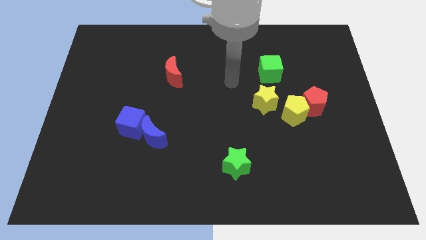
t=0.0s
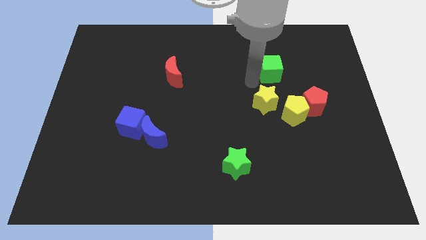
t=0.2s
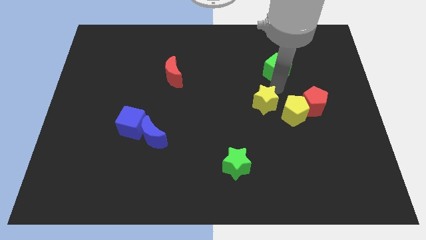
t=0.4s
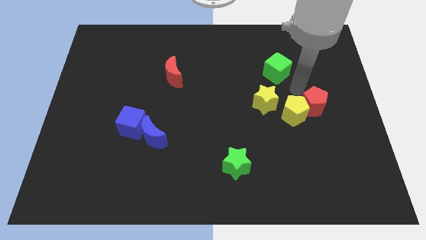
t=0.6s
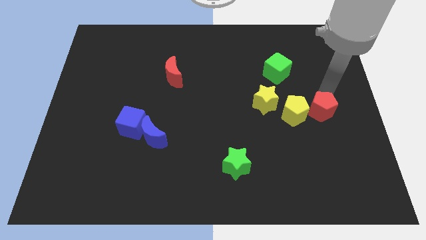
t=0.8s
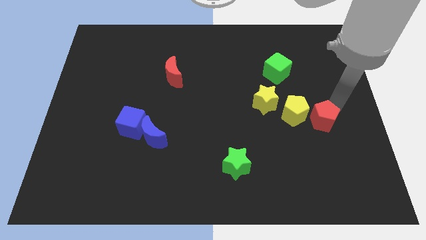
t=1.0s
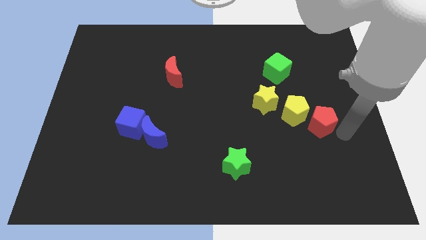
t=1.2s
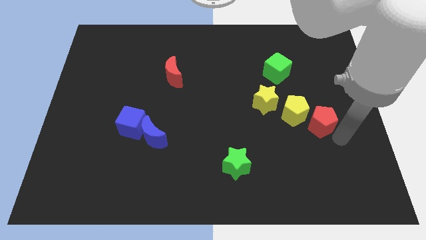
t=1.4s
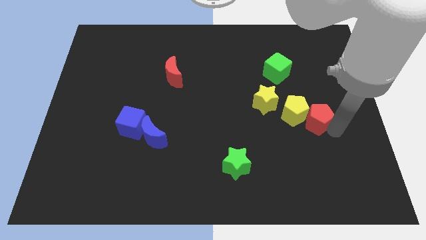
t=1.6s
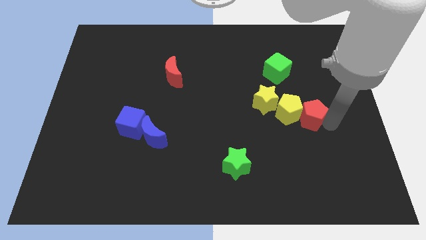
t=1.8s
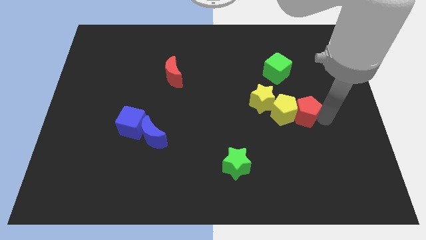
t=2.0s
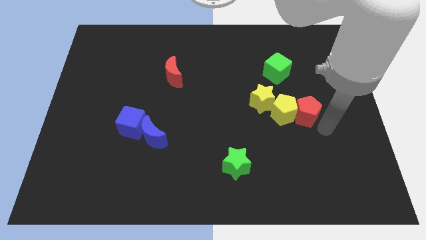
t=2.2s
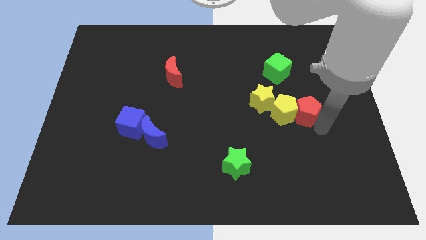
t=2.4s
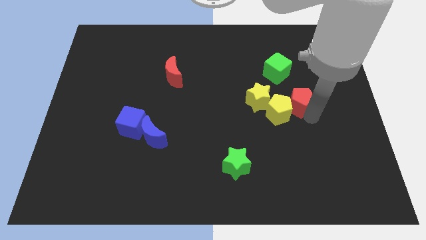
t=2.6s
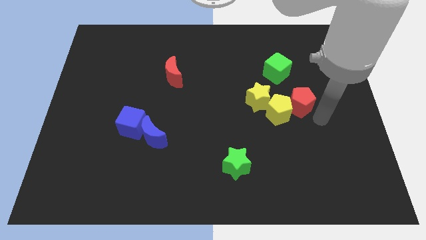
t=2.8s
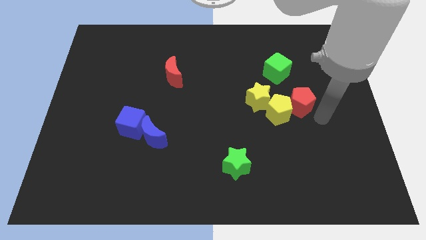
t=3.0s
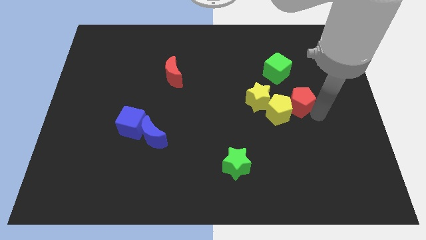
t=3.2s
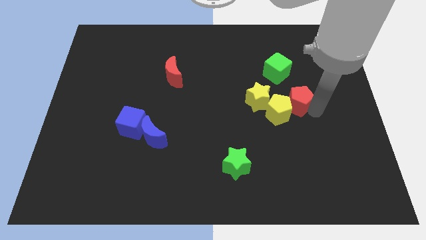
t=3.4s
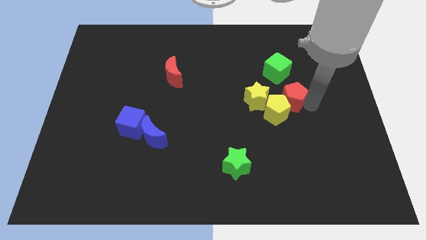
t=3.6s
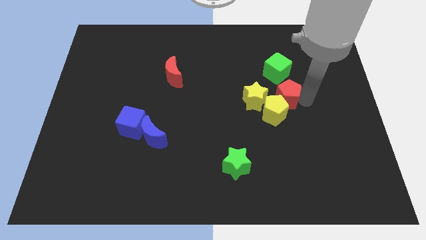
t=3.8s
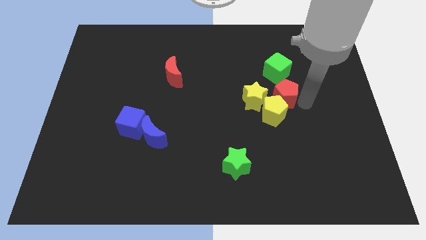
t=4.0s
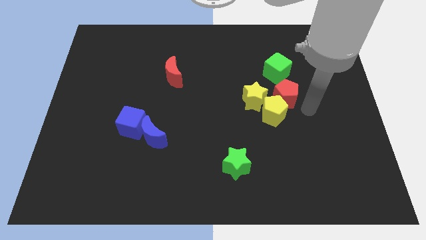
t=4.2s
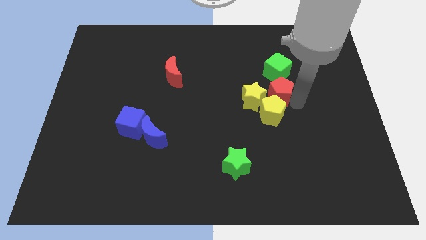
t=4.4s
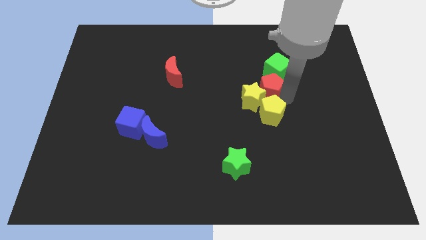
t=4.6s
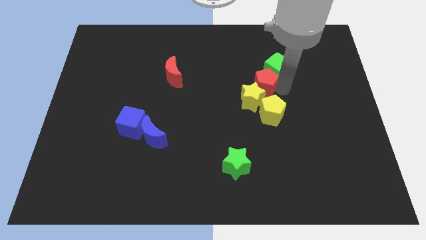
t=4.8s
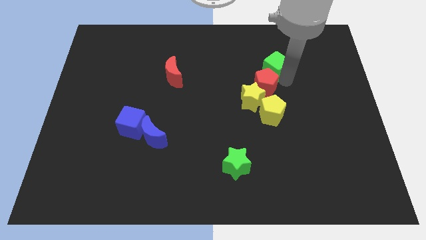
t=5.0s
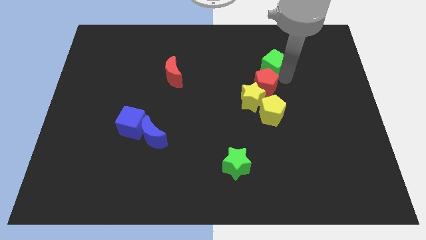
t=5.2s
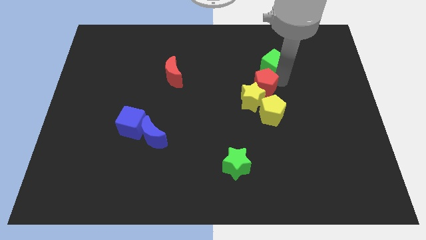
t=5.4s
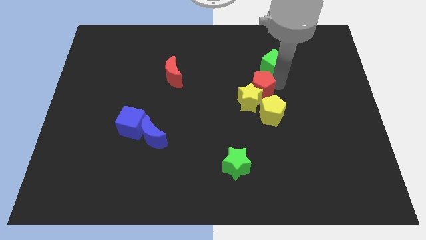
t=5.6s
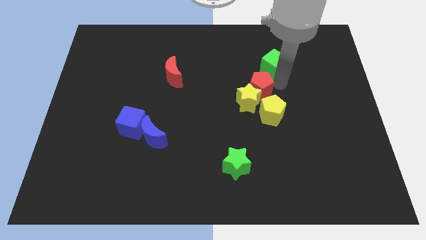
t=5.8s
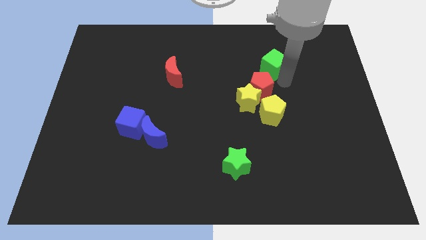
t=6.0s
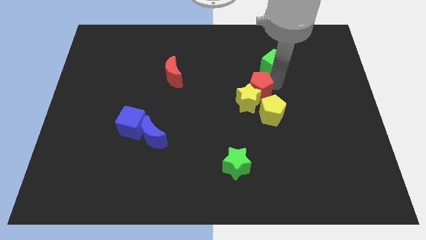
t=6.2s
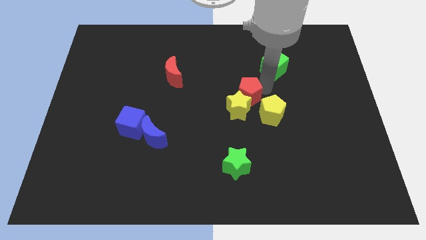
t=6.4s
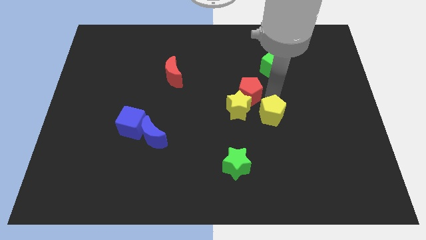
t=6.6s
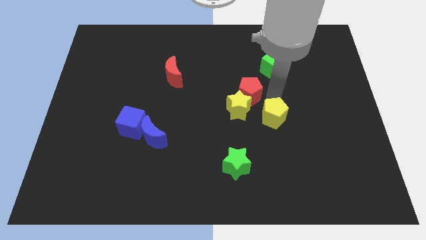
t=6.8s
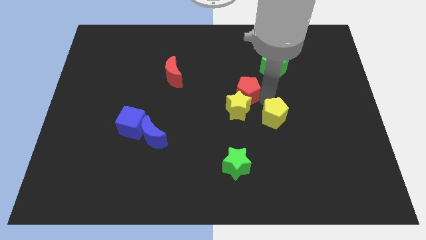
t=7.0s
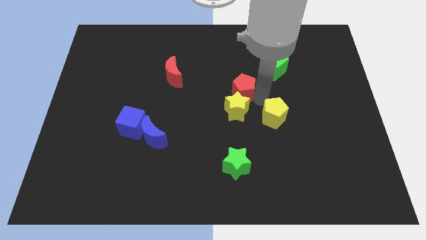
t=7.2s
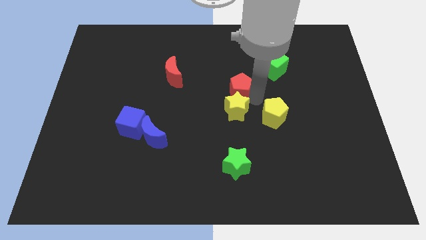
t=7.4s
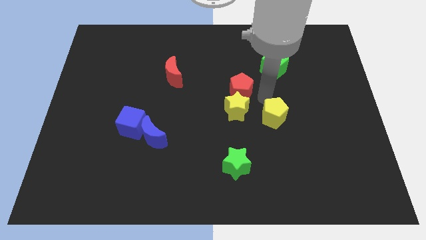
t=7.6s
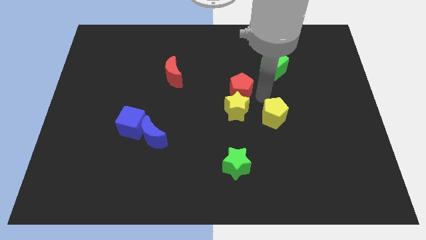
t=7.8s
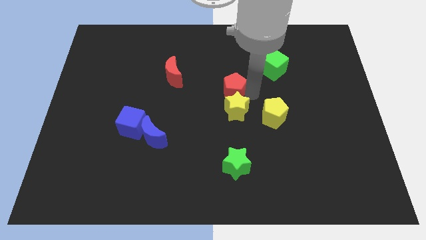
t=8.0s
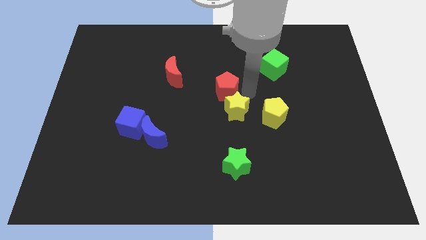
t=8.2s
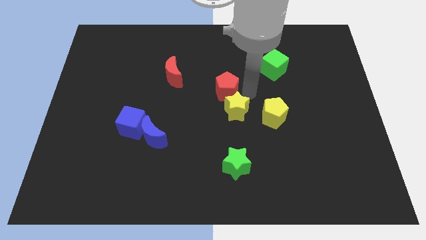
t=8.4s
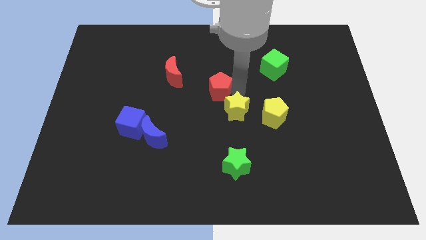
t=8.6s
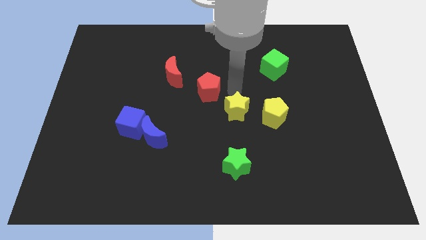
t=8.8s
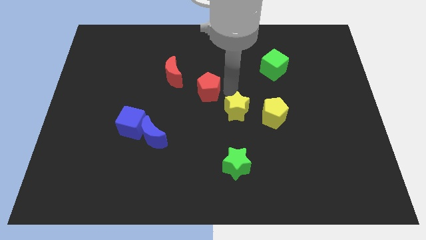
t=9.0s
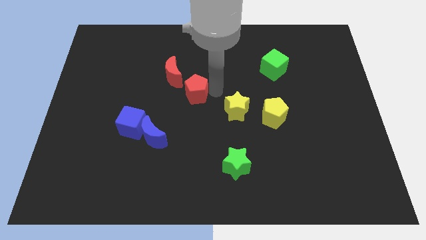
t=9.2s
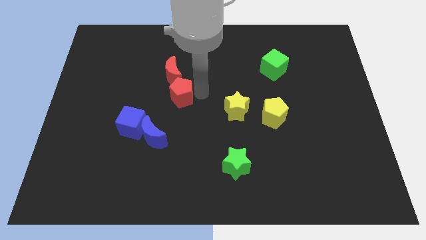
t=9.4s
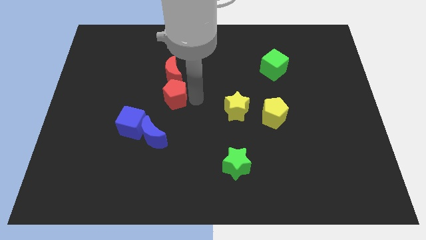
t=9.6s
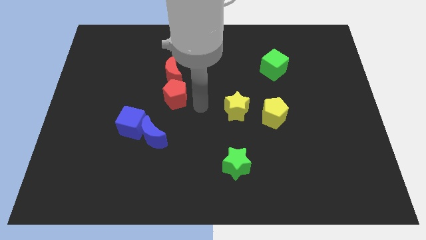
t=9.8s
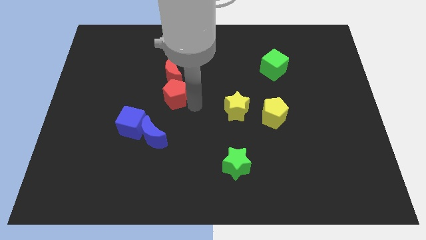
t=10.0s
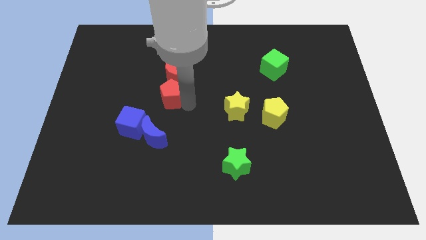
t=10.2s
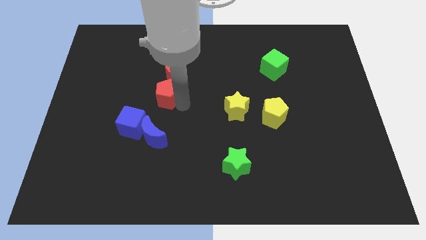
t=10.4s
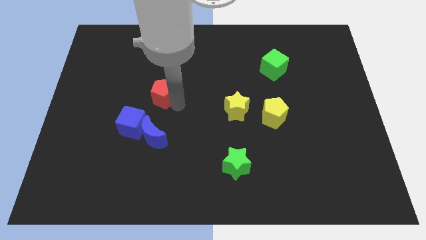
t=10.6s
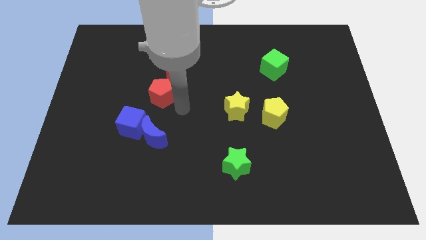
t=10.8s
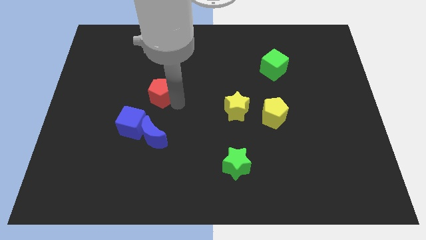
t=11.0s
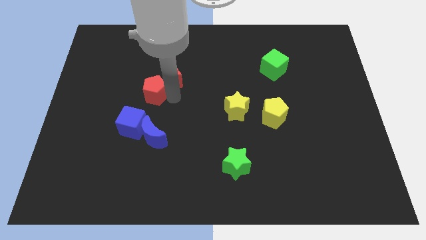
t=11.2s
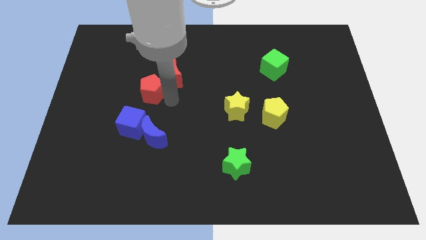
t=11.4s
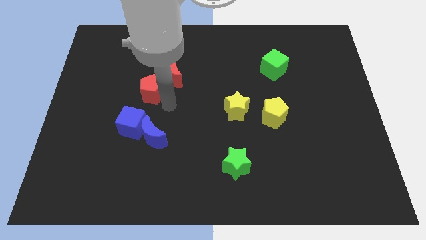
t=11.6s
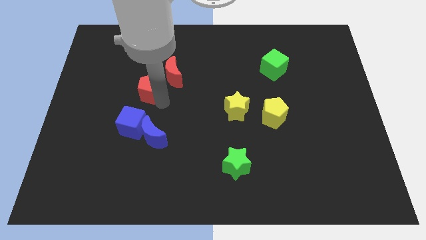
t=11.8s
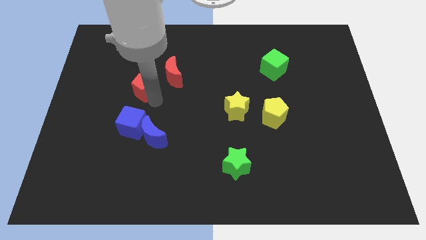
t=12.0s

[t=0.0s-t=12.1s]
put the red pentagon just left of the red moon

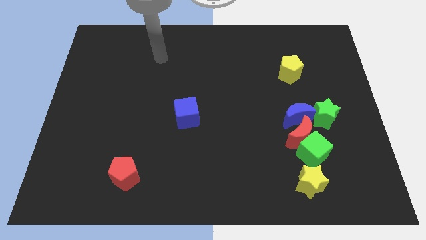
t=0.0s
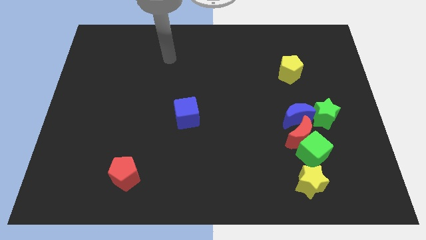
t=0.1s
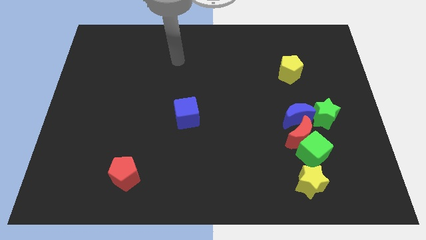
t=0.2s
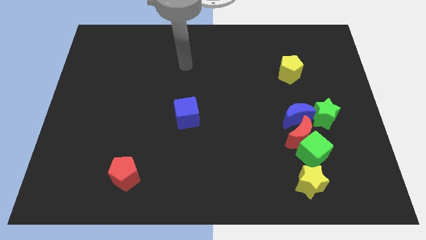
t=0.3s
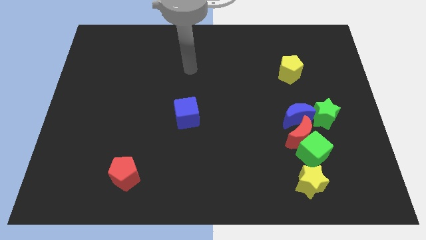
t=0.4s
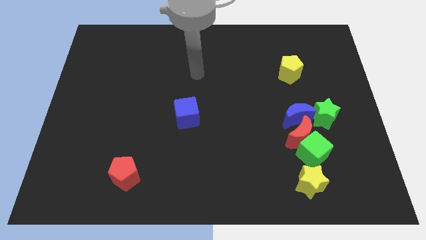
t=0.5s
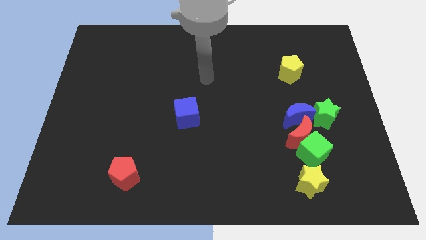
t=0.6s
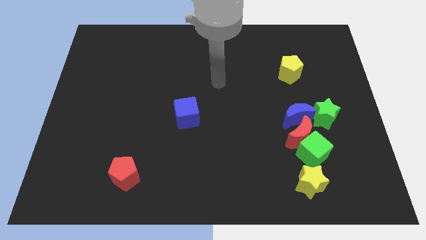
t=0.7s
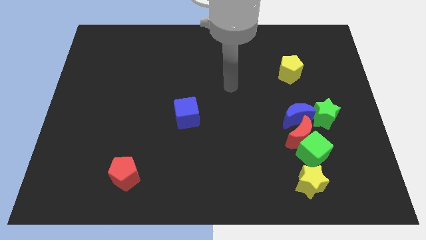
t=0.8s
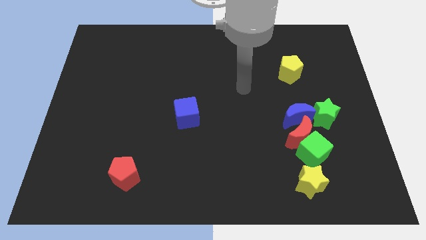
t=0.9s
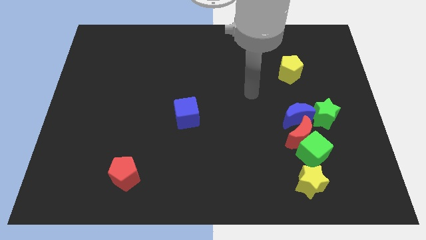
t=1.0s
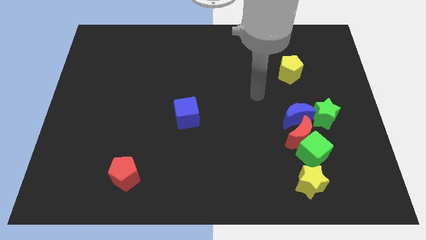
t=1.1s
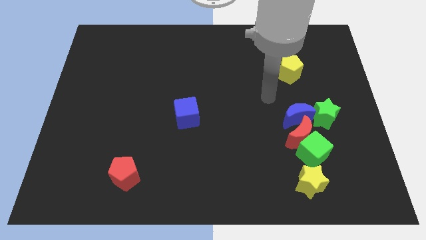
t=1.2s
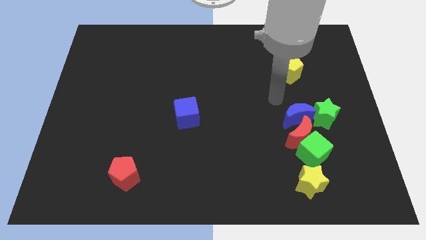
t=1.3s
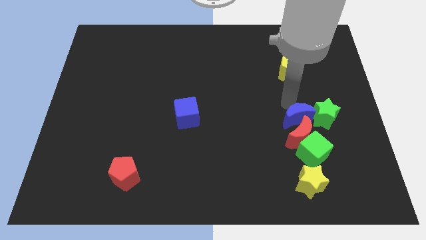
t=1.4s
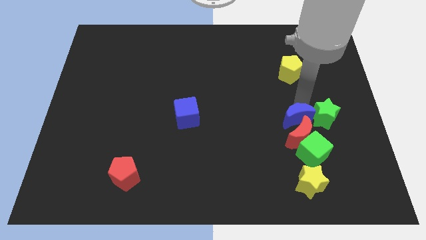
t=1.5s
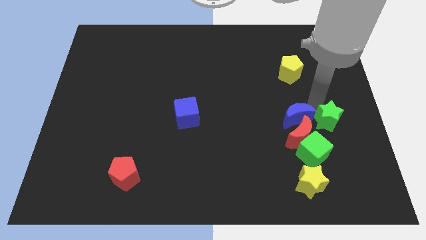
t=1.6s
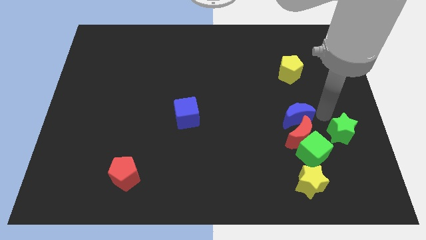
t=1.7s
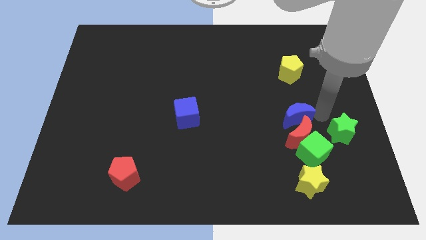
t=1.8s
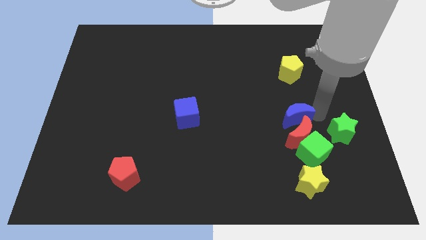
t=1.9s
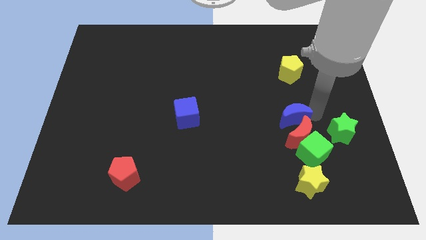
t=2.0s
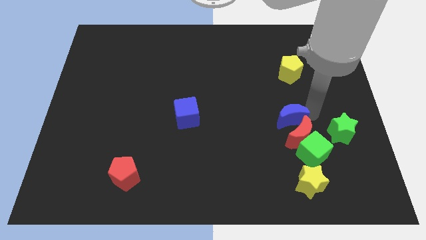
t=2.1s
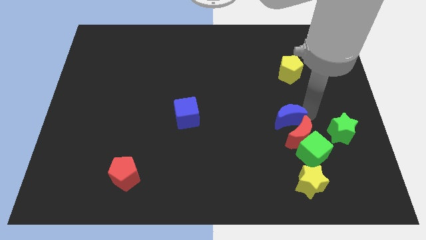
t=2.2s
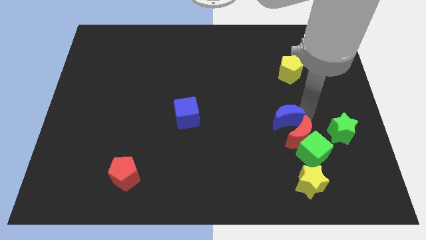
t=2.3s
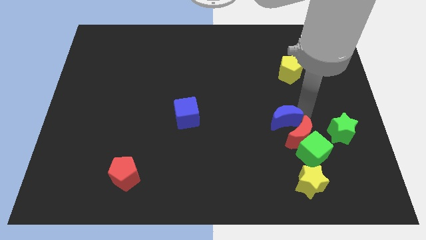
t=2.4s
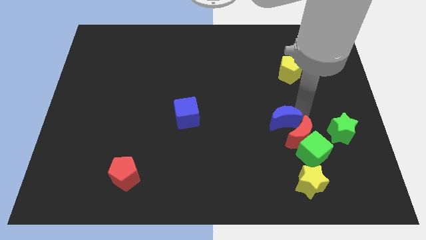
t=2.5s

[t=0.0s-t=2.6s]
push the blue moon to the left side of the red moon
